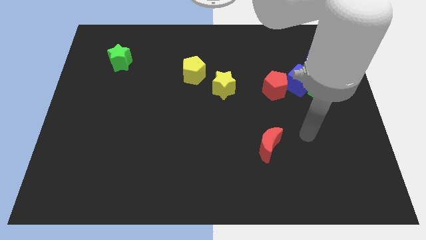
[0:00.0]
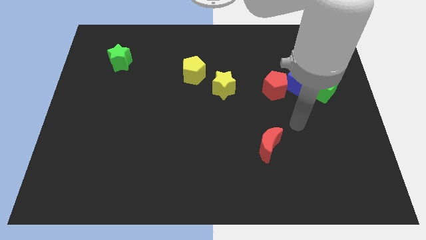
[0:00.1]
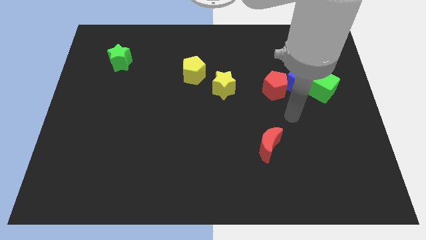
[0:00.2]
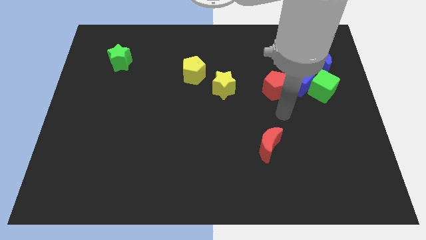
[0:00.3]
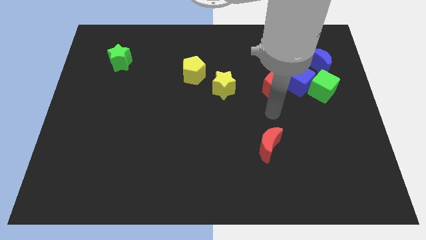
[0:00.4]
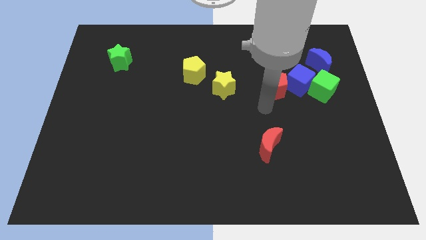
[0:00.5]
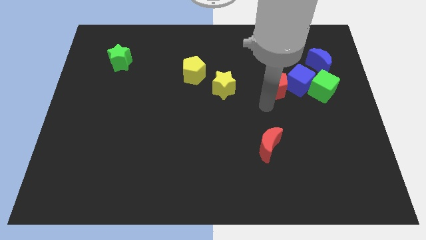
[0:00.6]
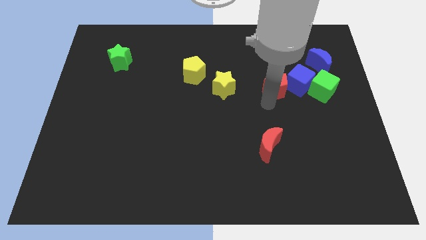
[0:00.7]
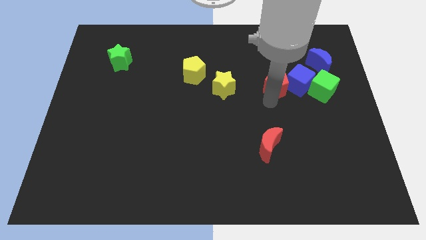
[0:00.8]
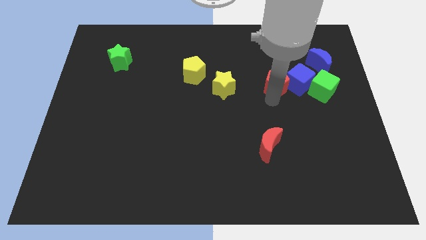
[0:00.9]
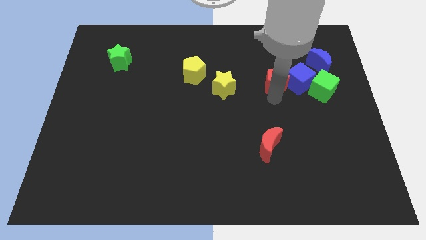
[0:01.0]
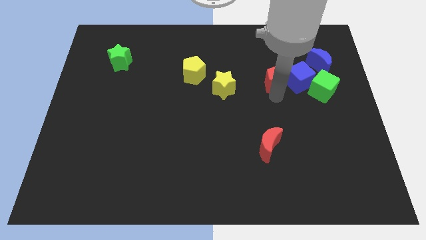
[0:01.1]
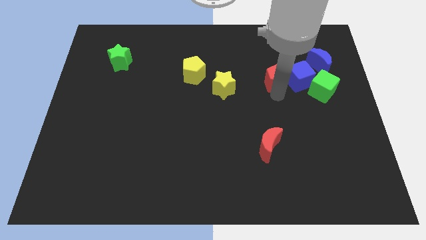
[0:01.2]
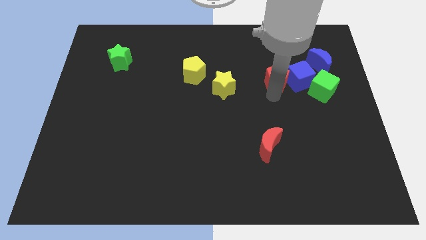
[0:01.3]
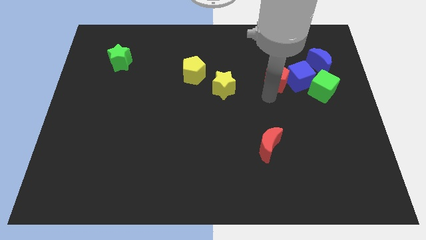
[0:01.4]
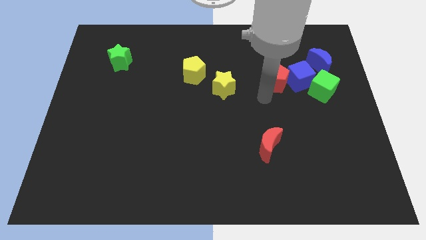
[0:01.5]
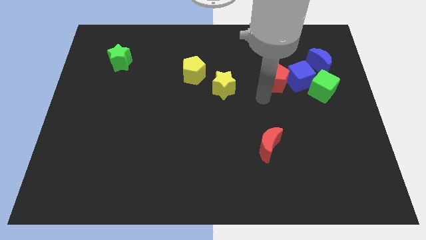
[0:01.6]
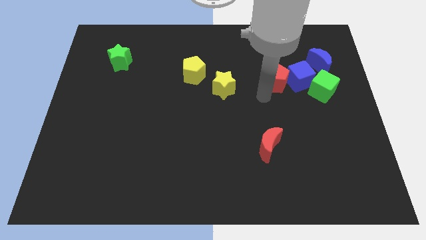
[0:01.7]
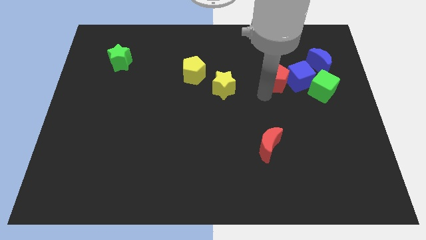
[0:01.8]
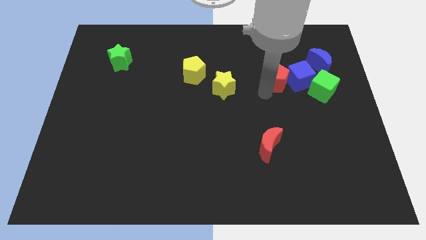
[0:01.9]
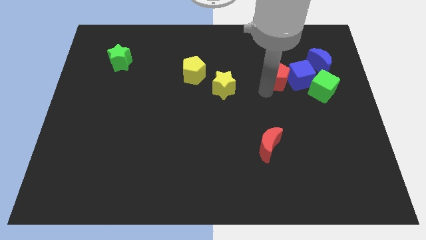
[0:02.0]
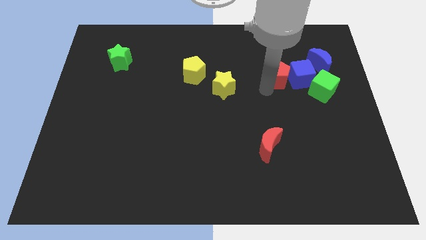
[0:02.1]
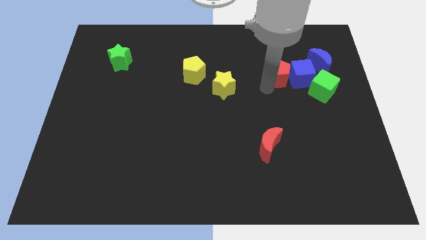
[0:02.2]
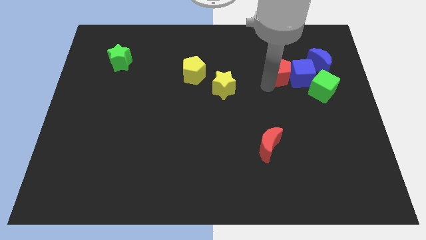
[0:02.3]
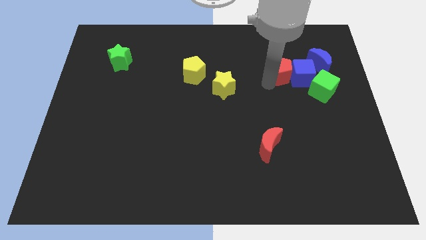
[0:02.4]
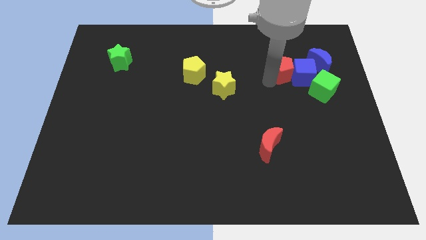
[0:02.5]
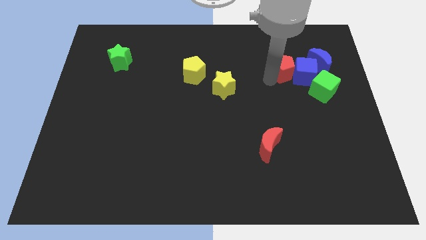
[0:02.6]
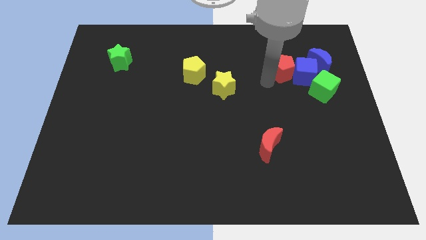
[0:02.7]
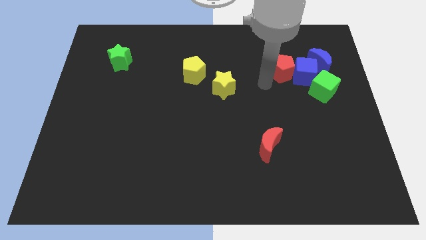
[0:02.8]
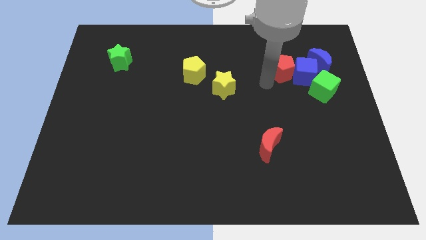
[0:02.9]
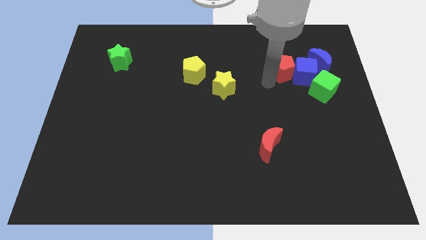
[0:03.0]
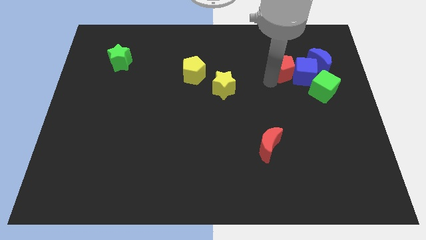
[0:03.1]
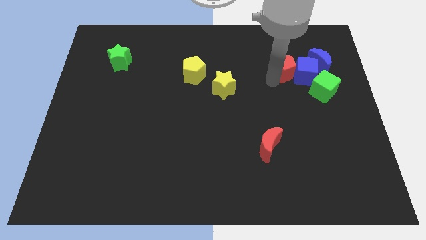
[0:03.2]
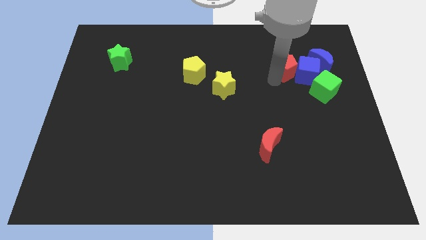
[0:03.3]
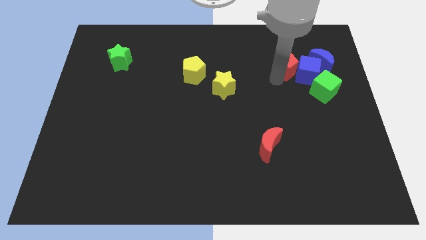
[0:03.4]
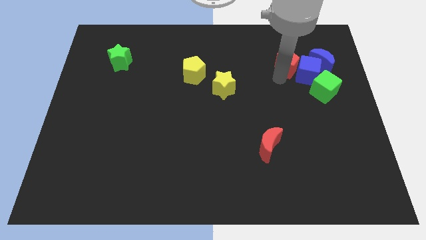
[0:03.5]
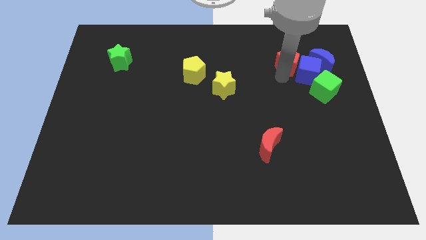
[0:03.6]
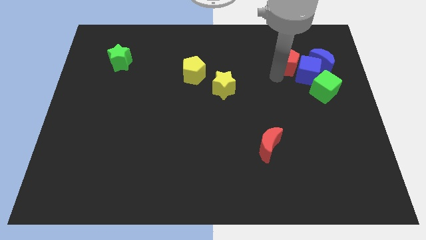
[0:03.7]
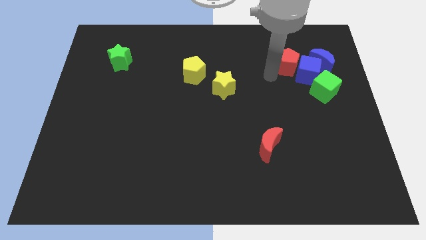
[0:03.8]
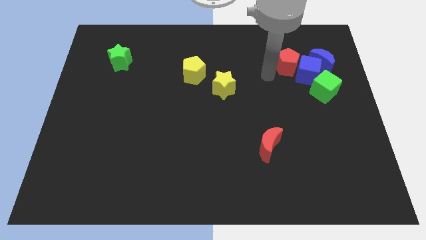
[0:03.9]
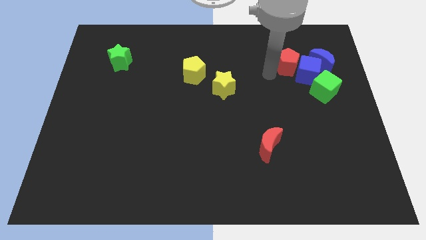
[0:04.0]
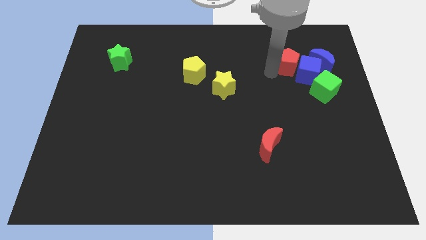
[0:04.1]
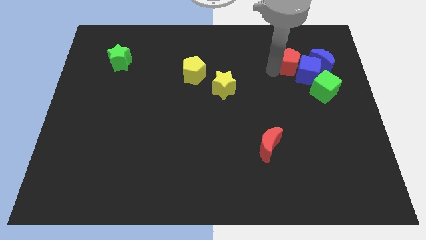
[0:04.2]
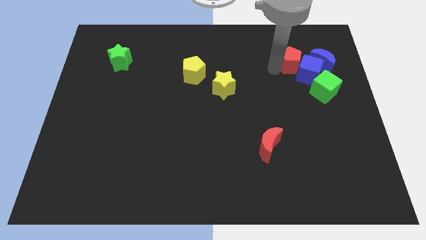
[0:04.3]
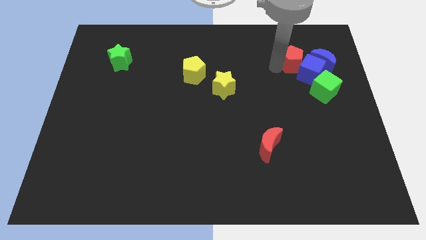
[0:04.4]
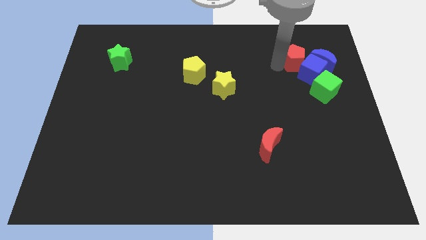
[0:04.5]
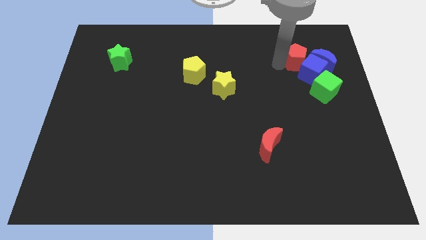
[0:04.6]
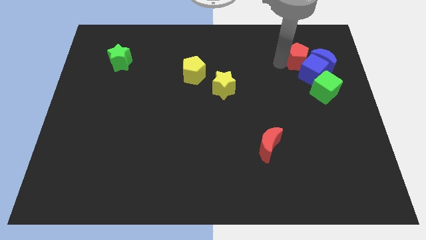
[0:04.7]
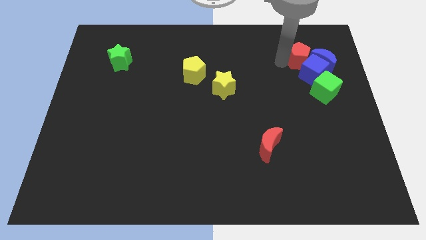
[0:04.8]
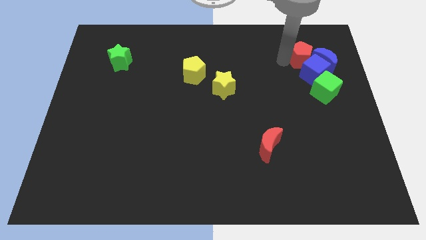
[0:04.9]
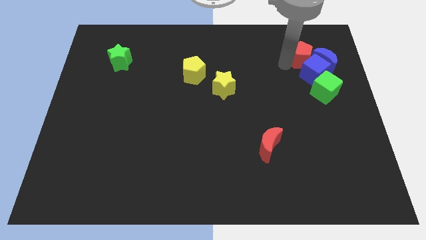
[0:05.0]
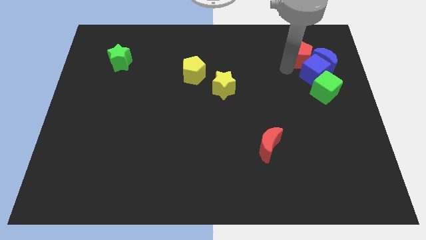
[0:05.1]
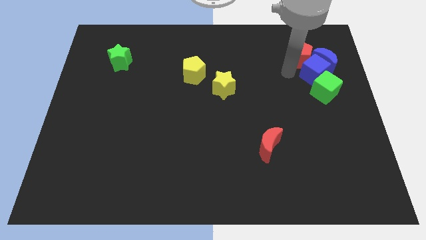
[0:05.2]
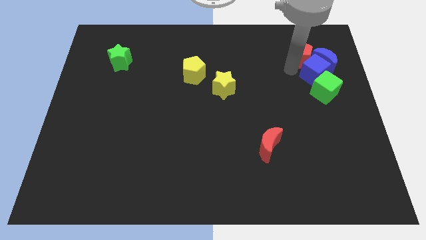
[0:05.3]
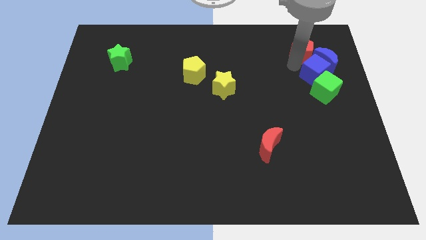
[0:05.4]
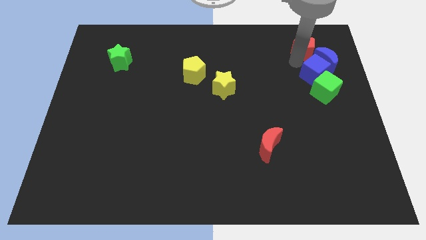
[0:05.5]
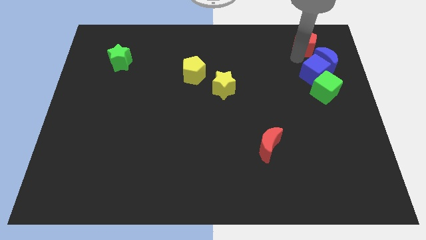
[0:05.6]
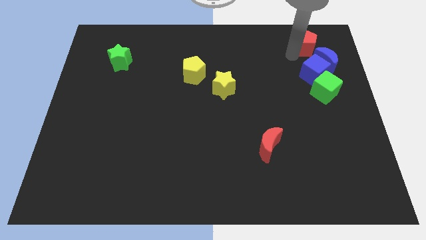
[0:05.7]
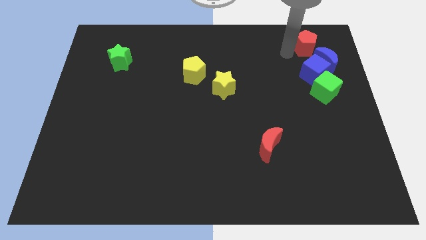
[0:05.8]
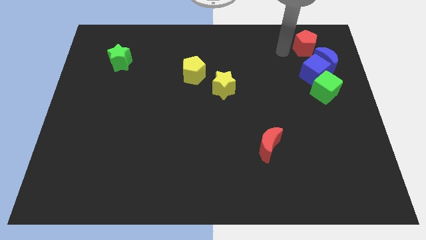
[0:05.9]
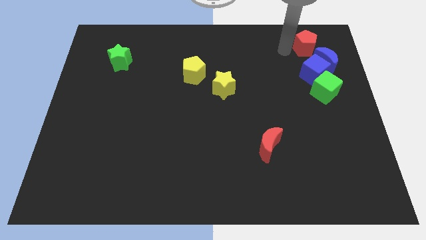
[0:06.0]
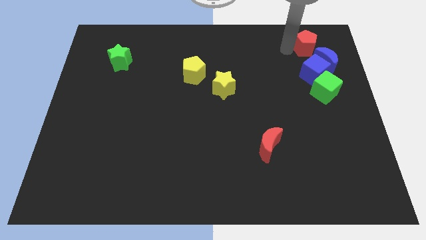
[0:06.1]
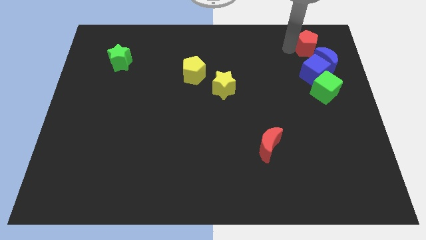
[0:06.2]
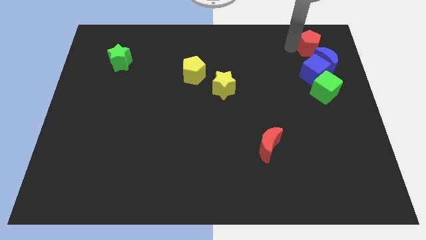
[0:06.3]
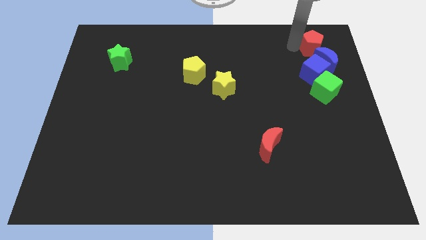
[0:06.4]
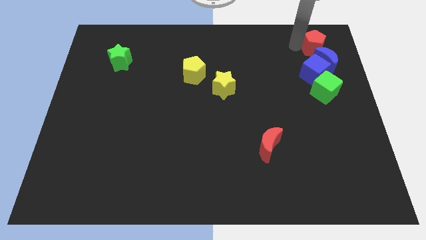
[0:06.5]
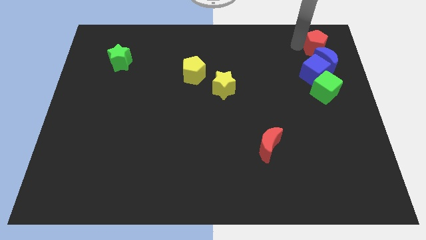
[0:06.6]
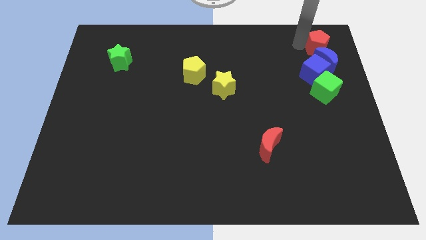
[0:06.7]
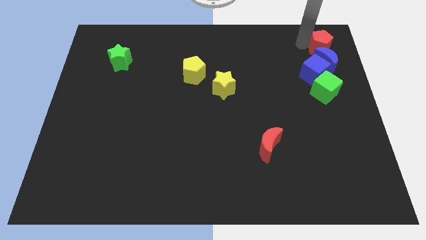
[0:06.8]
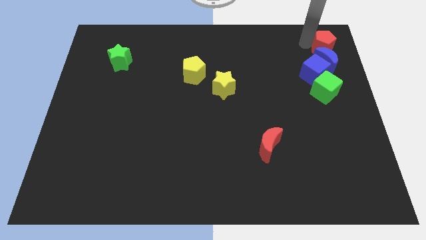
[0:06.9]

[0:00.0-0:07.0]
put the red pentagon to the upper right corner
